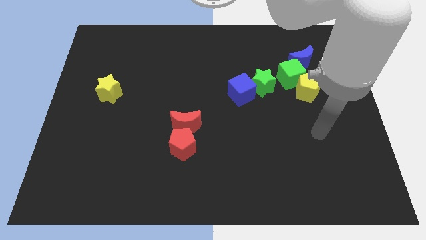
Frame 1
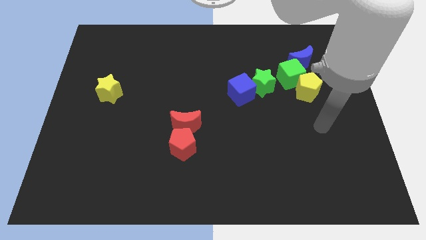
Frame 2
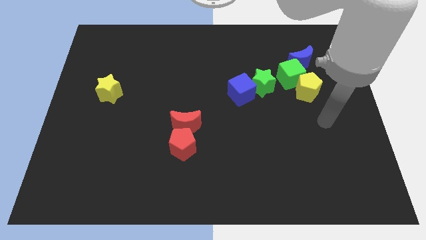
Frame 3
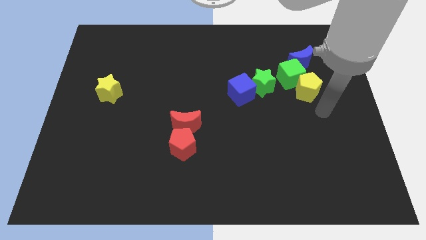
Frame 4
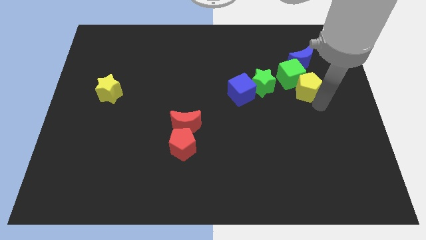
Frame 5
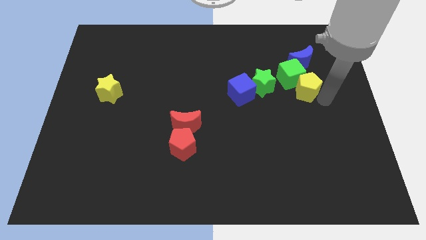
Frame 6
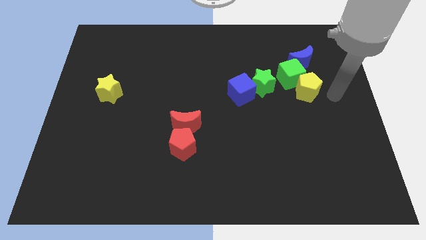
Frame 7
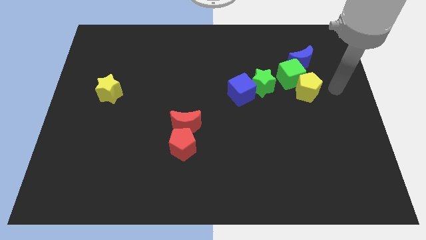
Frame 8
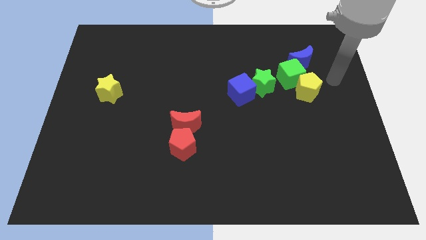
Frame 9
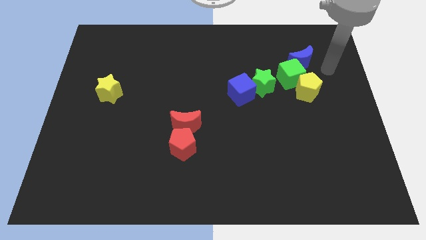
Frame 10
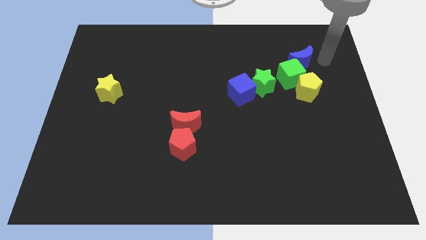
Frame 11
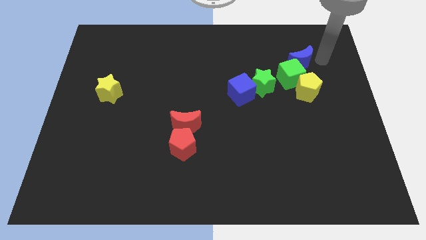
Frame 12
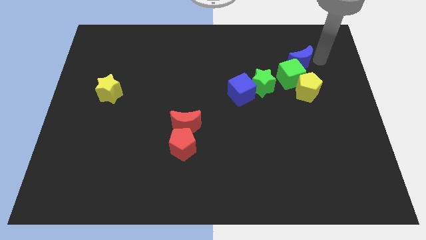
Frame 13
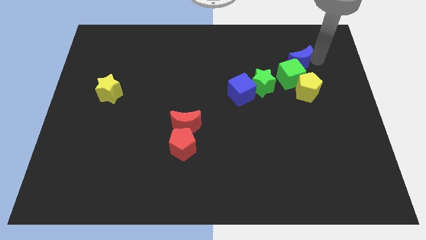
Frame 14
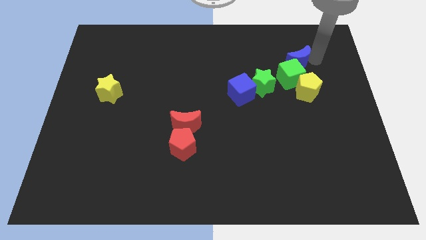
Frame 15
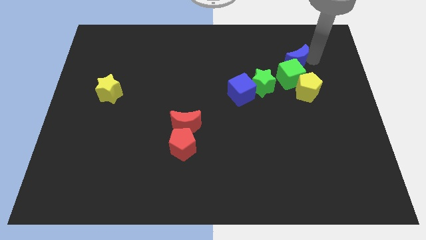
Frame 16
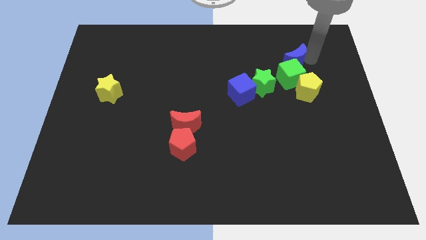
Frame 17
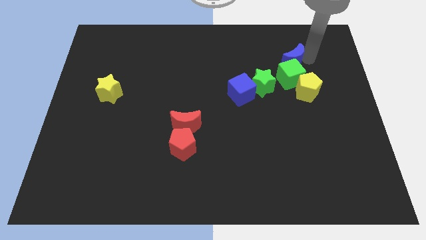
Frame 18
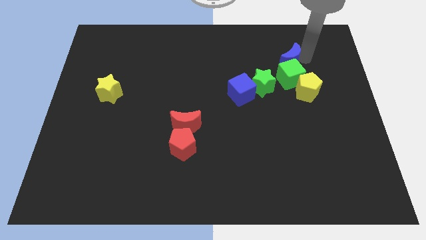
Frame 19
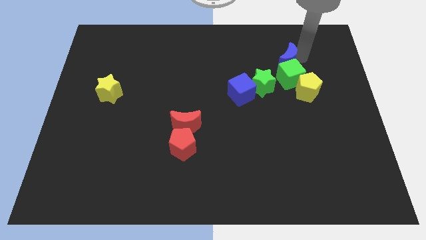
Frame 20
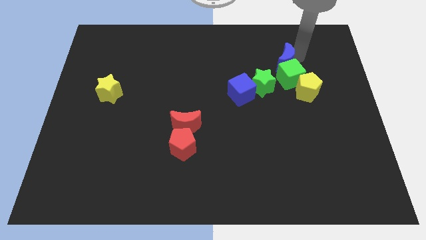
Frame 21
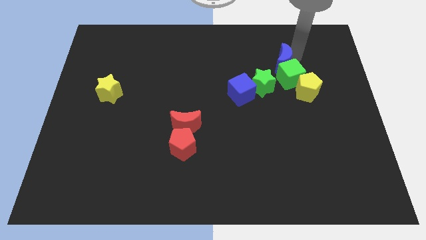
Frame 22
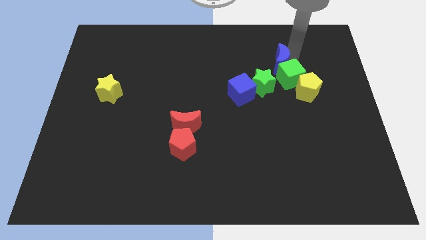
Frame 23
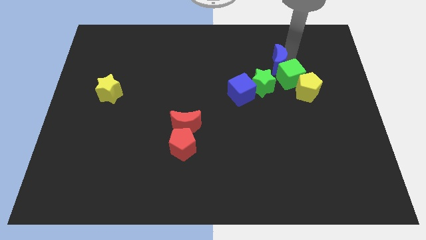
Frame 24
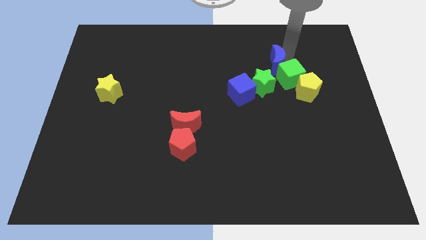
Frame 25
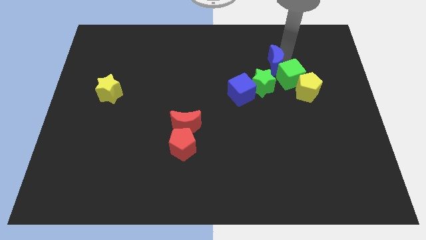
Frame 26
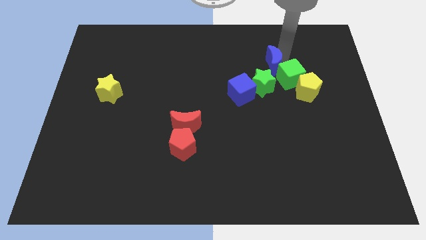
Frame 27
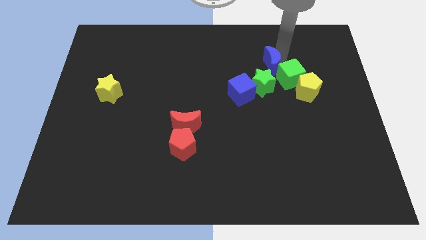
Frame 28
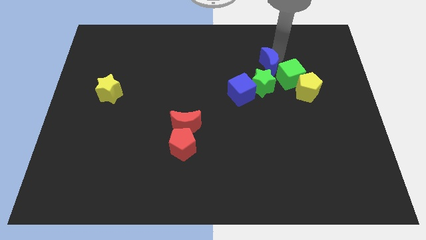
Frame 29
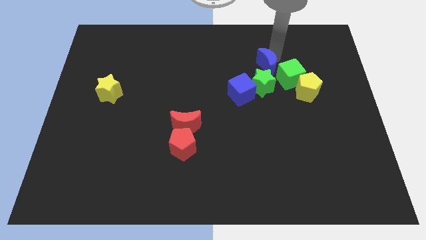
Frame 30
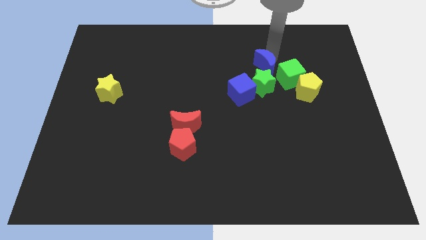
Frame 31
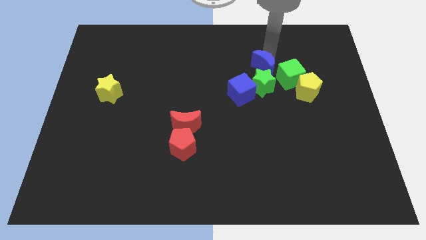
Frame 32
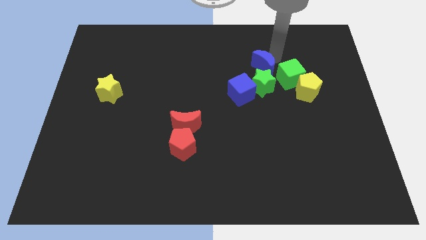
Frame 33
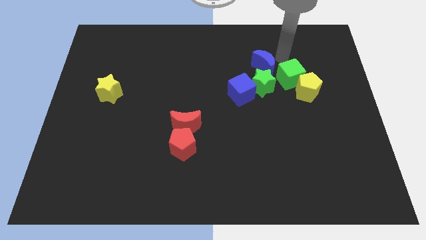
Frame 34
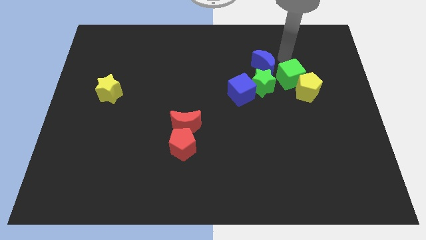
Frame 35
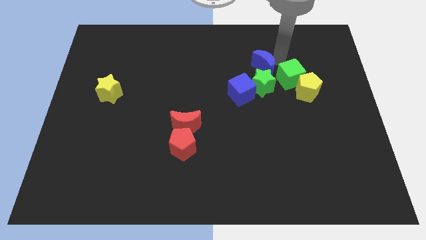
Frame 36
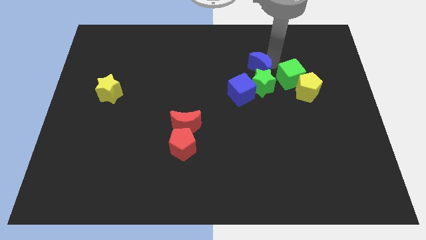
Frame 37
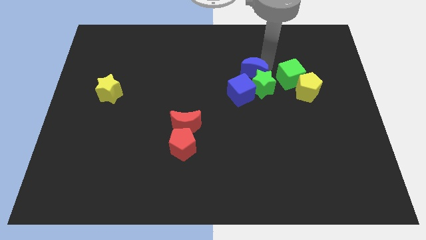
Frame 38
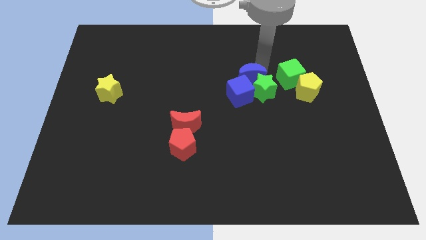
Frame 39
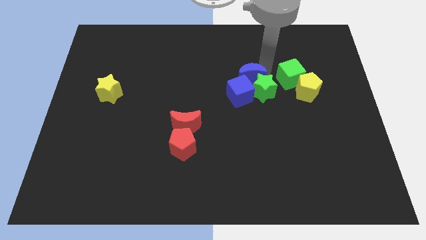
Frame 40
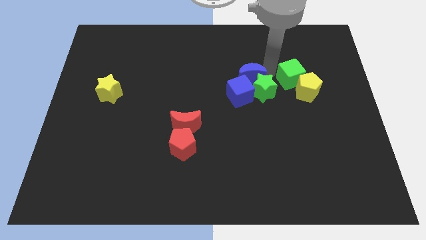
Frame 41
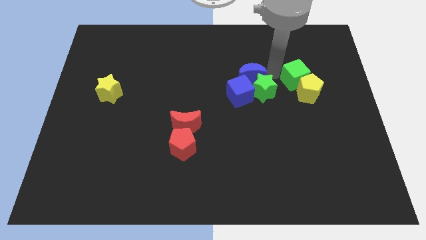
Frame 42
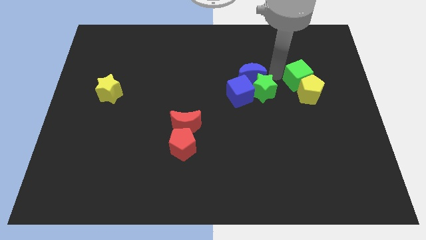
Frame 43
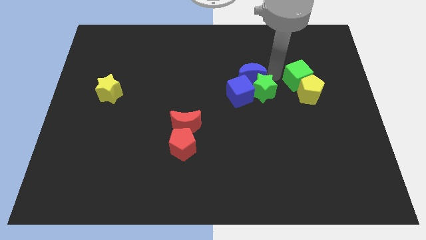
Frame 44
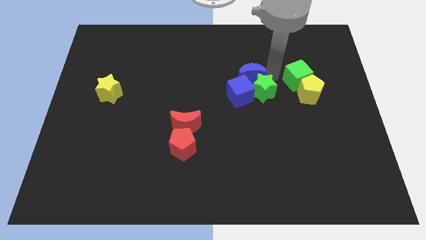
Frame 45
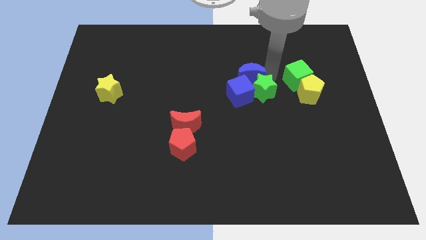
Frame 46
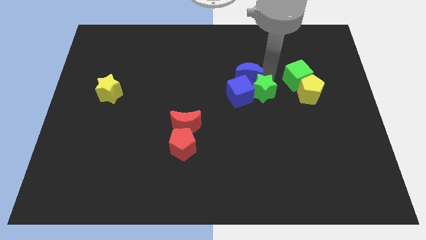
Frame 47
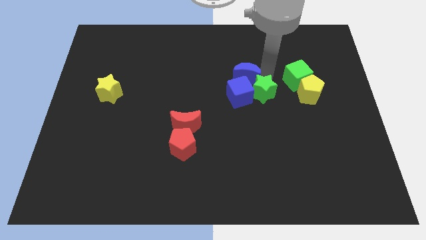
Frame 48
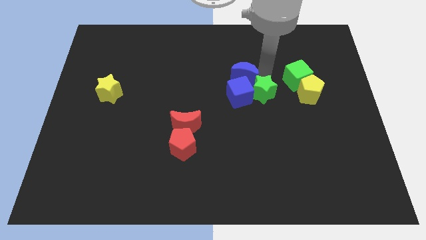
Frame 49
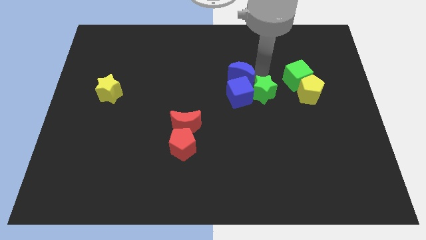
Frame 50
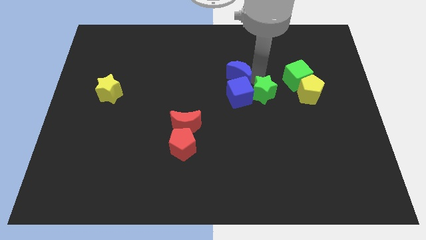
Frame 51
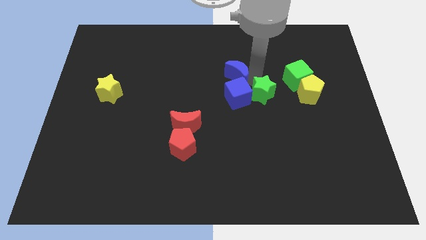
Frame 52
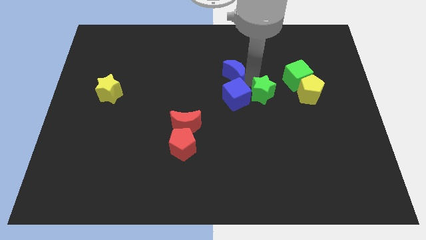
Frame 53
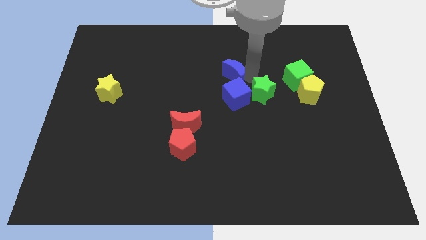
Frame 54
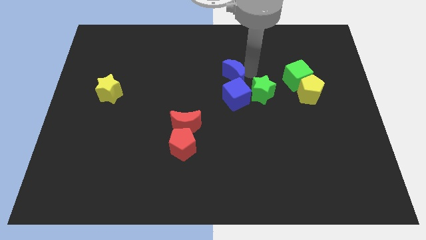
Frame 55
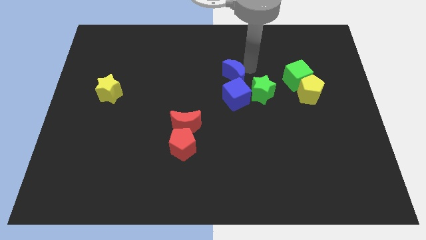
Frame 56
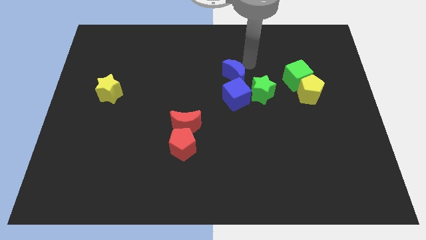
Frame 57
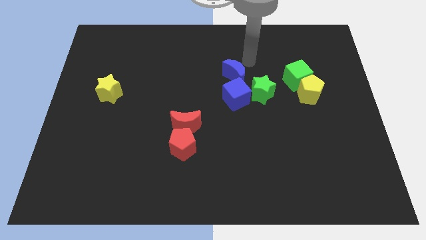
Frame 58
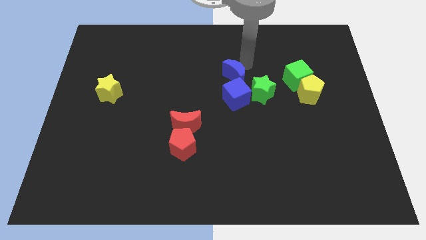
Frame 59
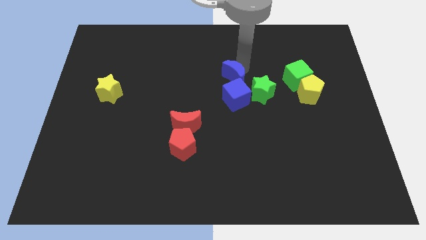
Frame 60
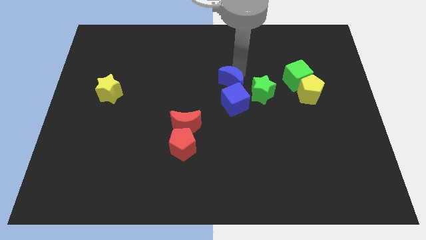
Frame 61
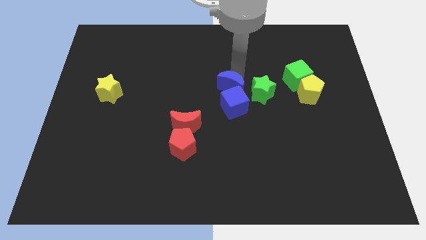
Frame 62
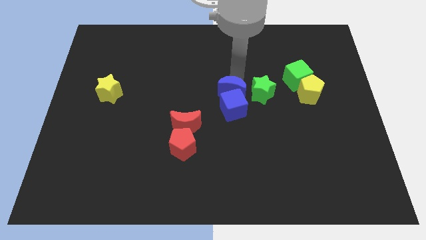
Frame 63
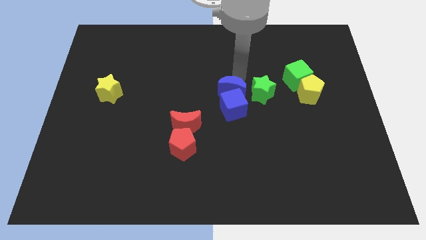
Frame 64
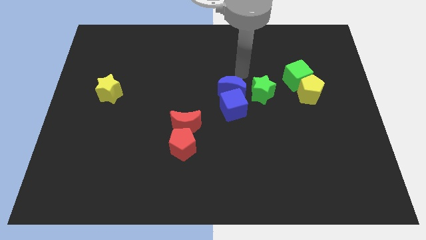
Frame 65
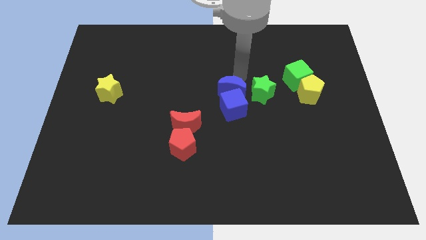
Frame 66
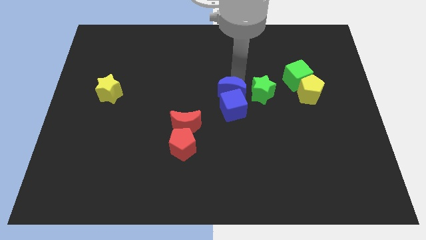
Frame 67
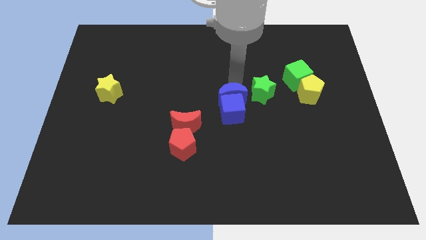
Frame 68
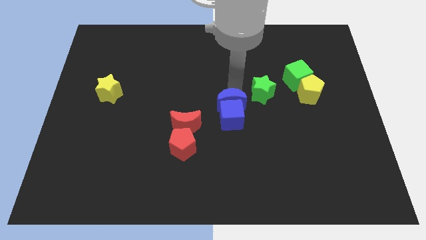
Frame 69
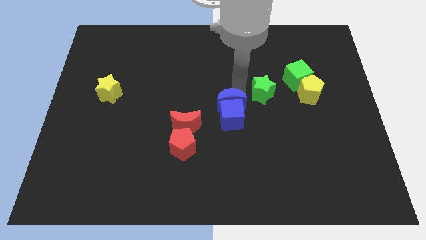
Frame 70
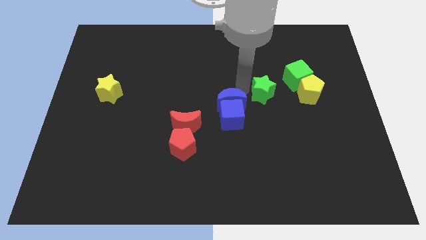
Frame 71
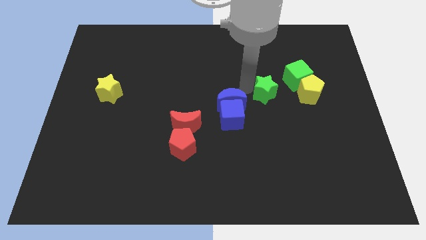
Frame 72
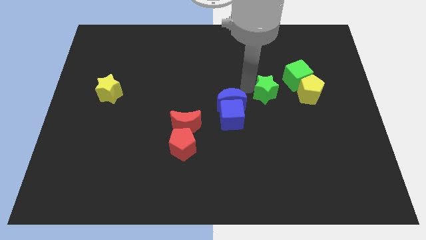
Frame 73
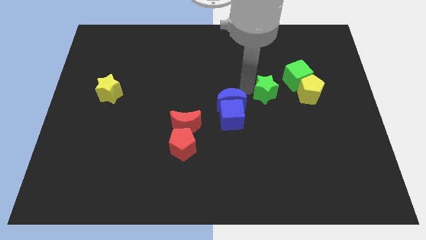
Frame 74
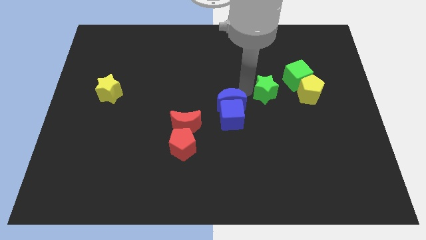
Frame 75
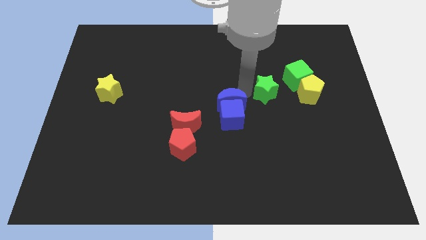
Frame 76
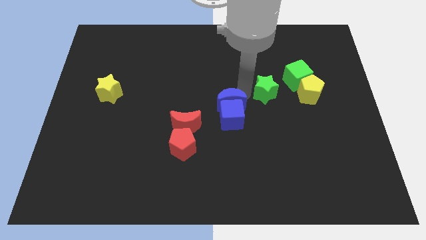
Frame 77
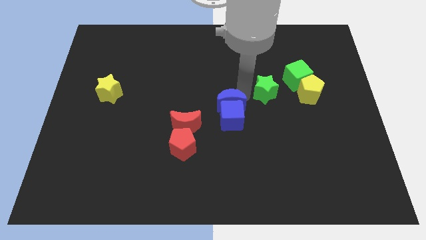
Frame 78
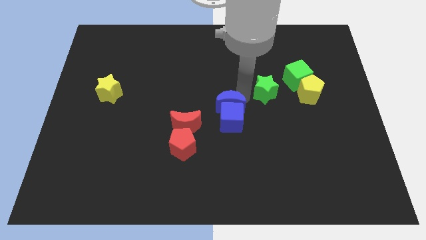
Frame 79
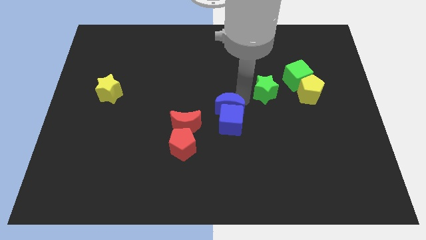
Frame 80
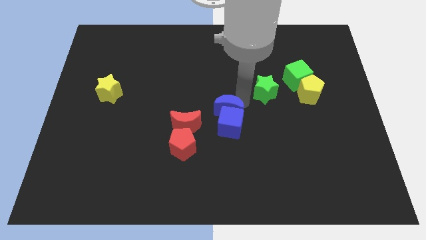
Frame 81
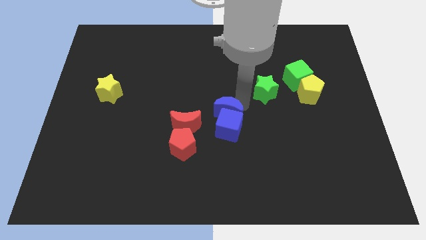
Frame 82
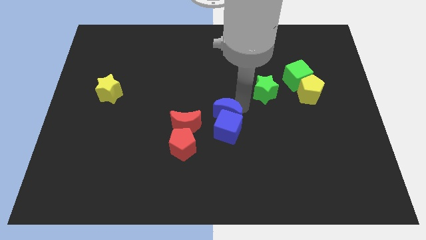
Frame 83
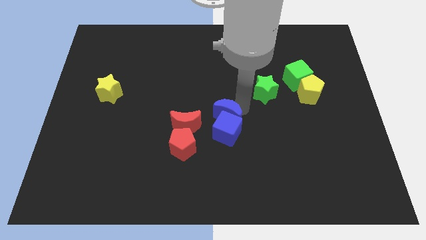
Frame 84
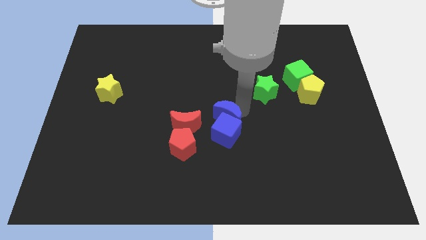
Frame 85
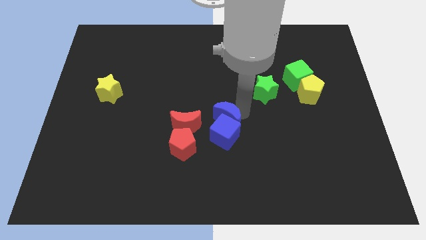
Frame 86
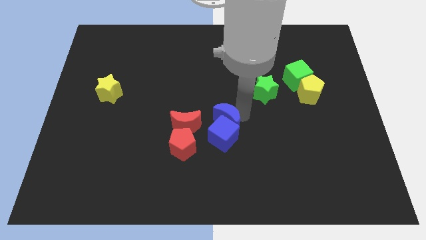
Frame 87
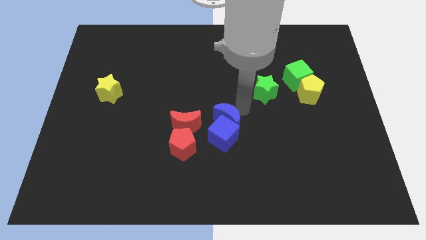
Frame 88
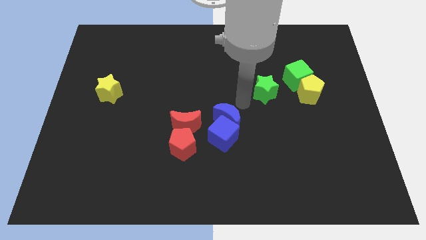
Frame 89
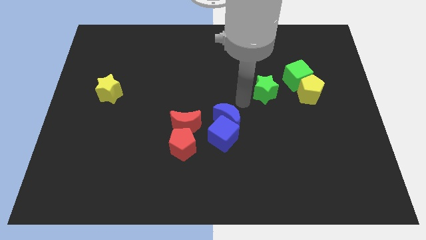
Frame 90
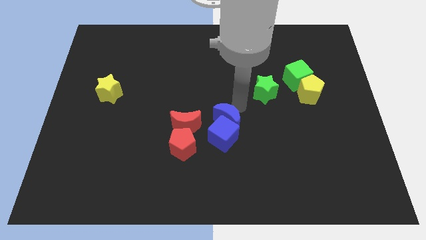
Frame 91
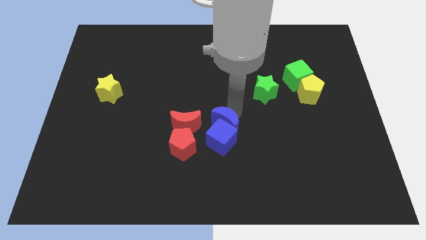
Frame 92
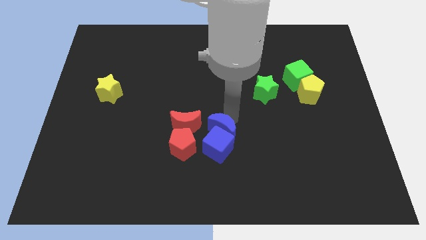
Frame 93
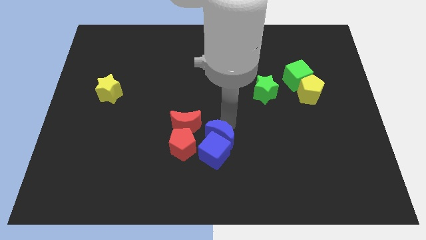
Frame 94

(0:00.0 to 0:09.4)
slide the blue moon diagonally down and to the right of the red moon
